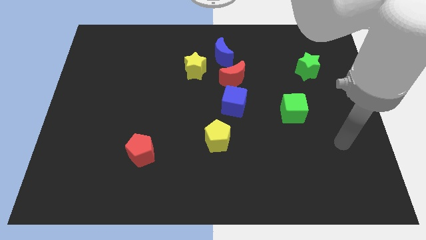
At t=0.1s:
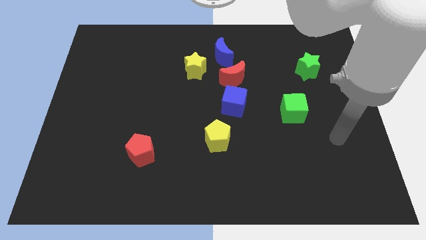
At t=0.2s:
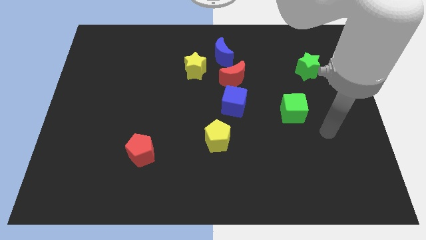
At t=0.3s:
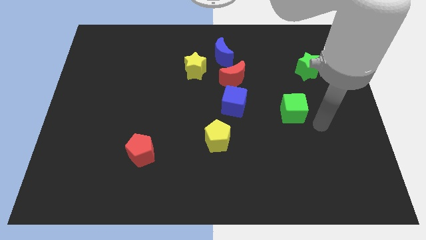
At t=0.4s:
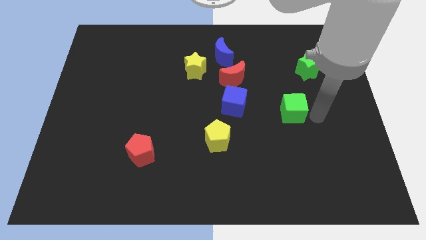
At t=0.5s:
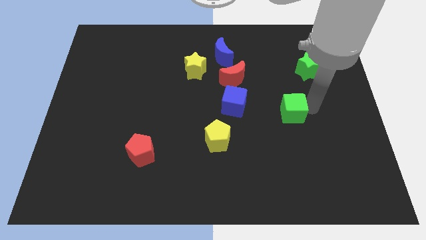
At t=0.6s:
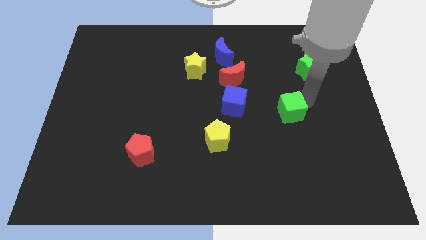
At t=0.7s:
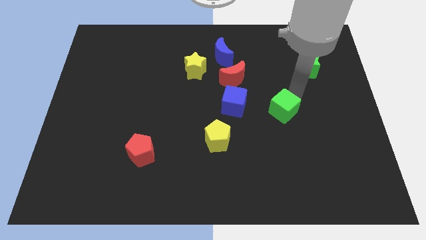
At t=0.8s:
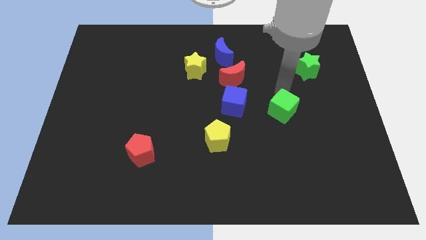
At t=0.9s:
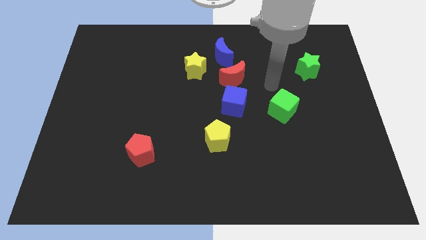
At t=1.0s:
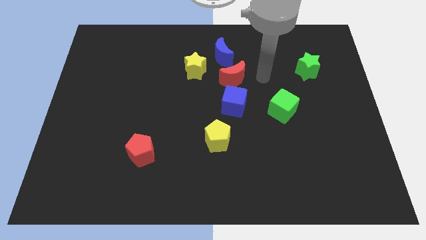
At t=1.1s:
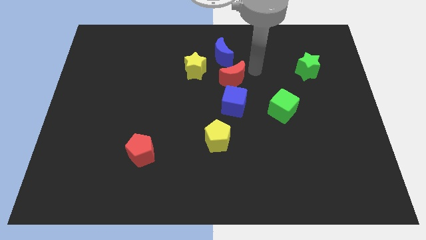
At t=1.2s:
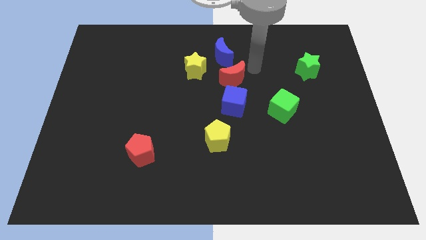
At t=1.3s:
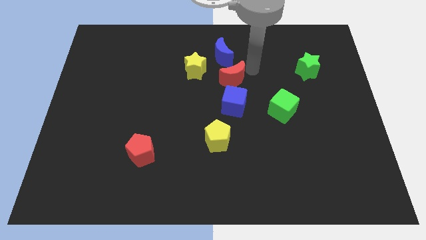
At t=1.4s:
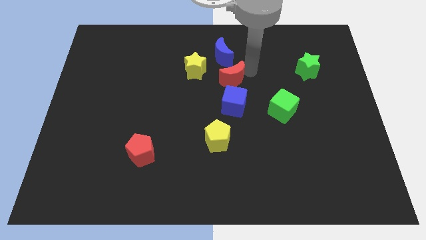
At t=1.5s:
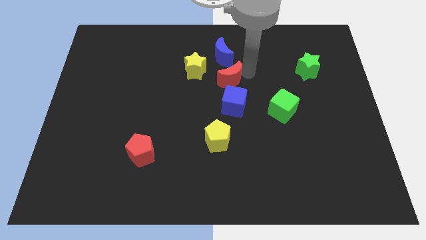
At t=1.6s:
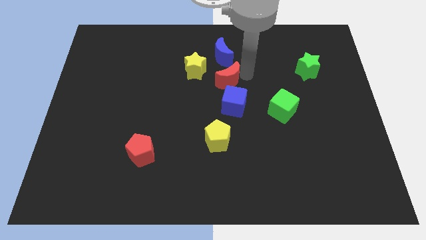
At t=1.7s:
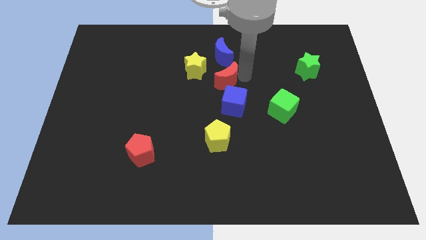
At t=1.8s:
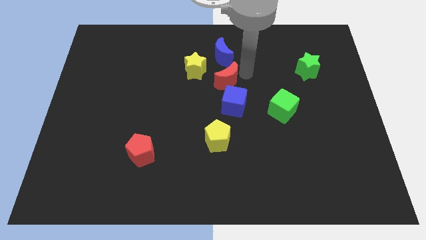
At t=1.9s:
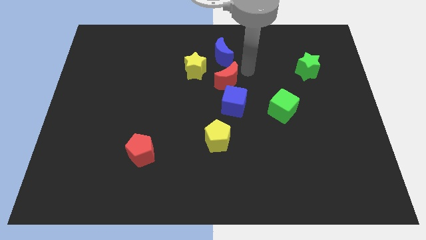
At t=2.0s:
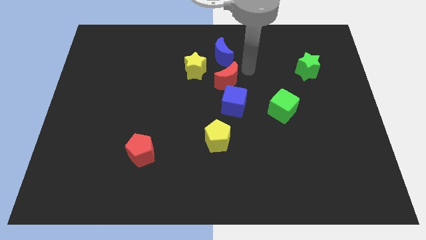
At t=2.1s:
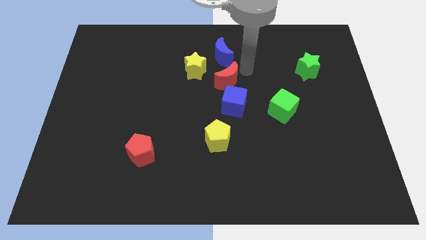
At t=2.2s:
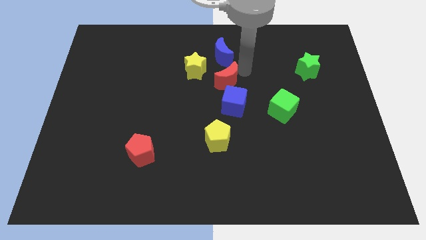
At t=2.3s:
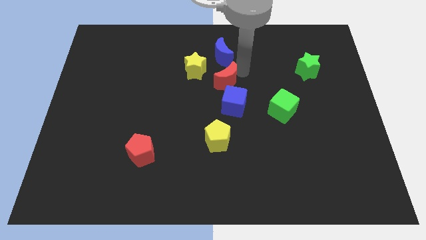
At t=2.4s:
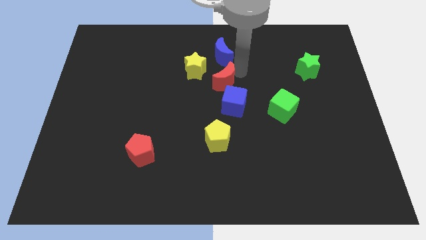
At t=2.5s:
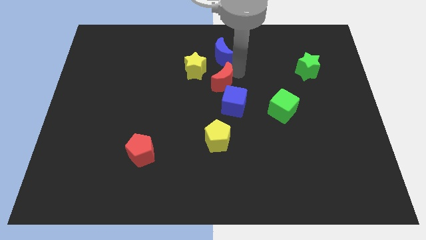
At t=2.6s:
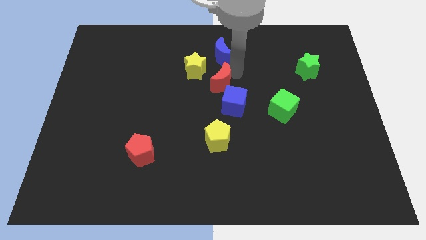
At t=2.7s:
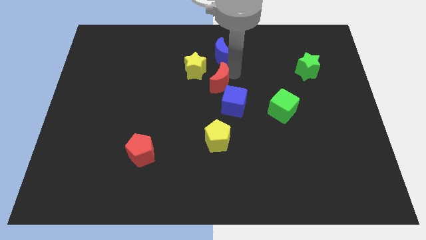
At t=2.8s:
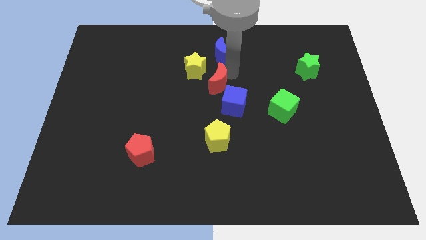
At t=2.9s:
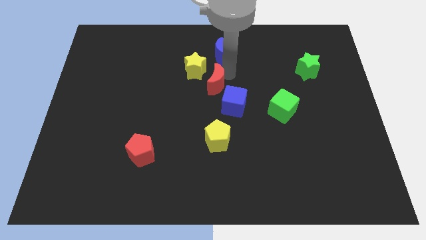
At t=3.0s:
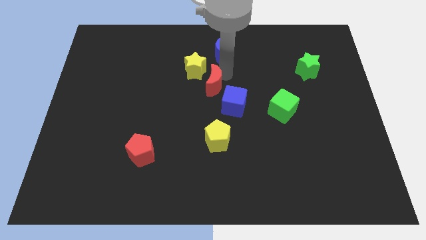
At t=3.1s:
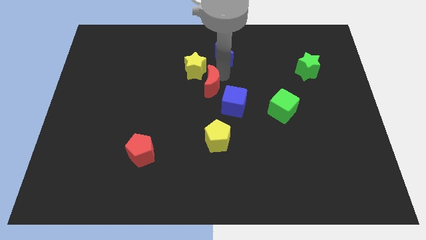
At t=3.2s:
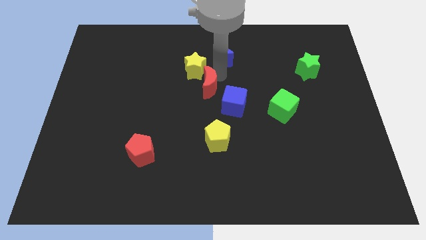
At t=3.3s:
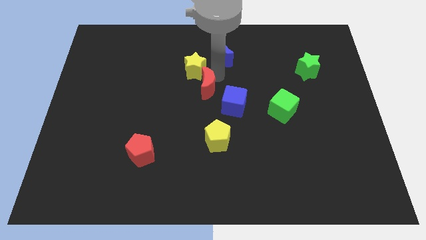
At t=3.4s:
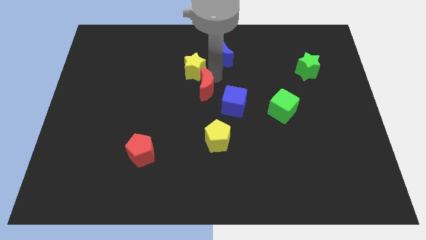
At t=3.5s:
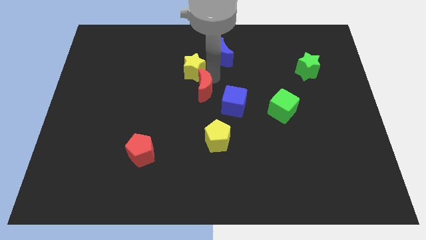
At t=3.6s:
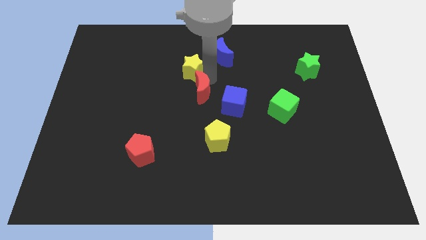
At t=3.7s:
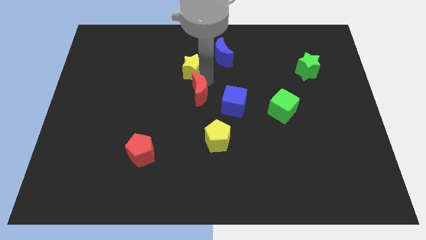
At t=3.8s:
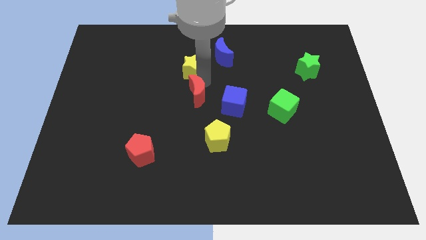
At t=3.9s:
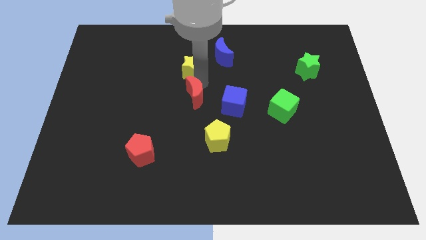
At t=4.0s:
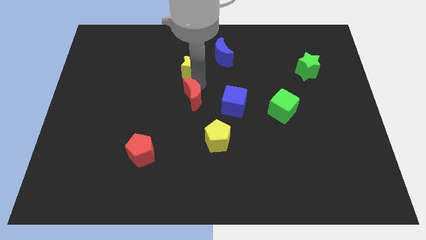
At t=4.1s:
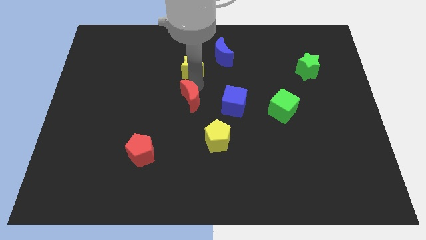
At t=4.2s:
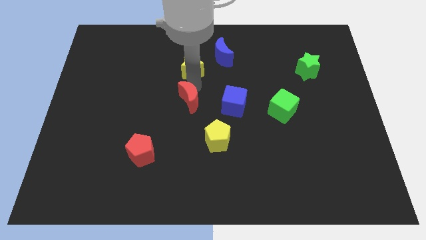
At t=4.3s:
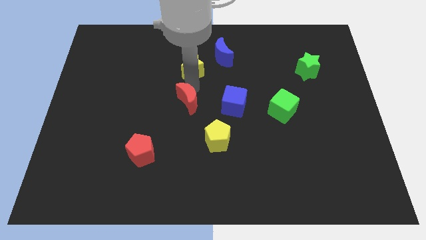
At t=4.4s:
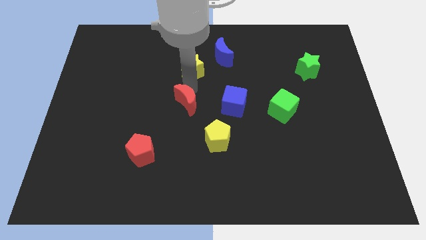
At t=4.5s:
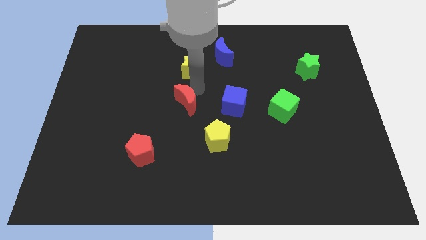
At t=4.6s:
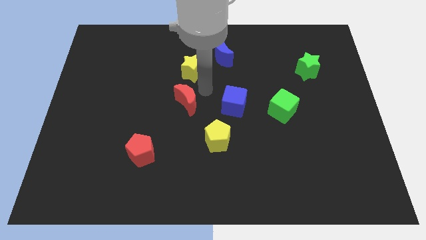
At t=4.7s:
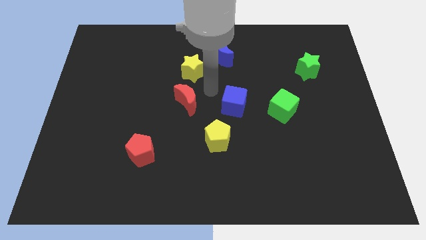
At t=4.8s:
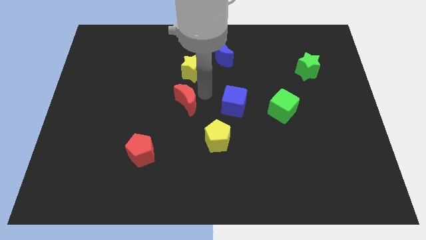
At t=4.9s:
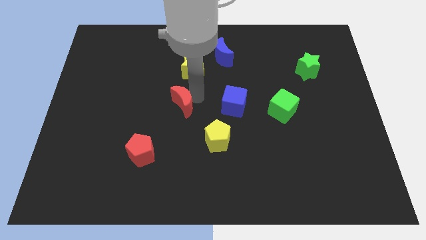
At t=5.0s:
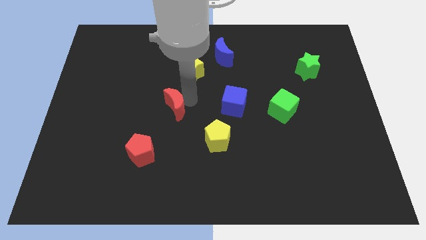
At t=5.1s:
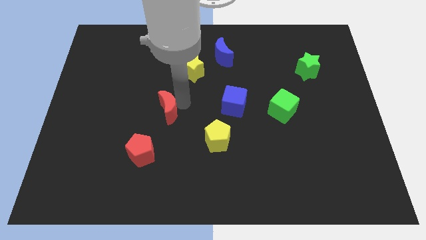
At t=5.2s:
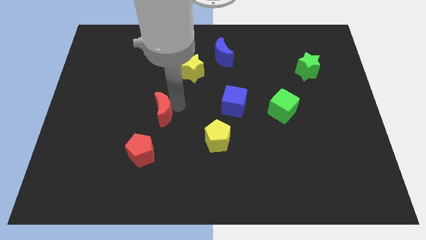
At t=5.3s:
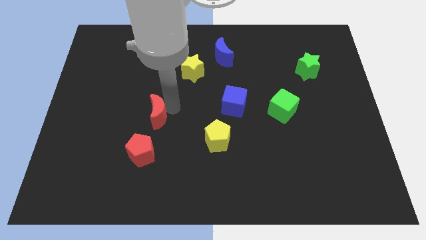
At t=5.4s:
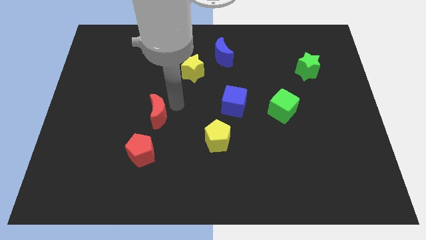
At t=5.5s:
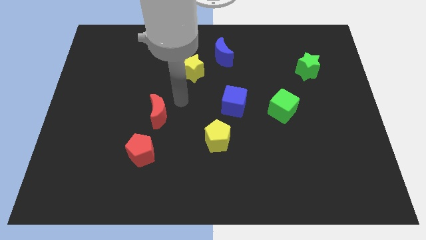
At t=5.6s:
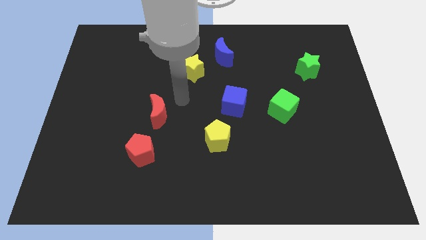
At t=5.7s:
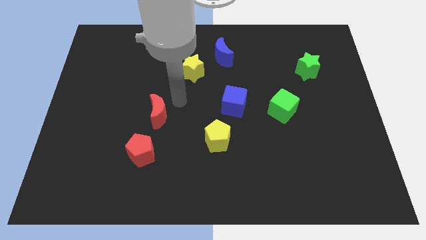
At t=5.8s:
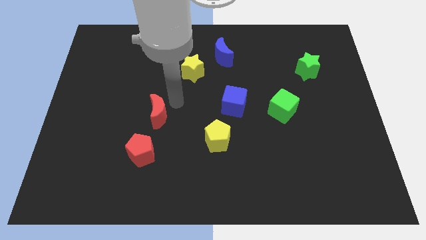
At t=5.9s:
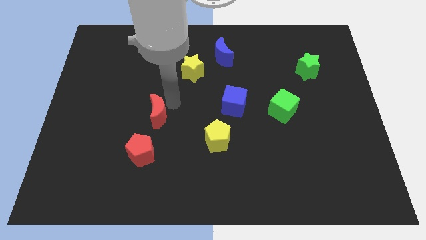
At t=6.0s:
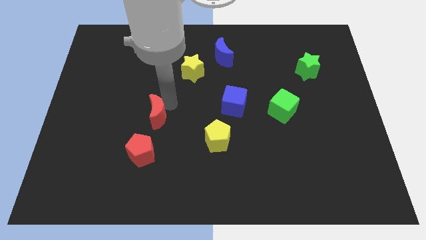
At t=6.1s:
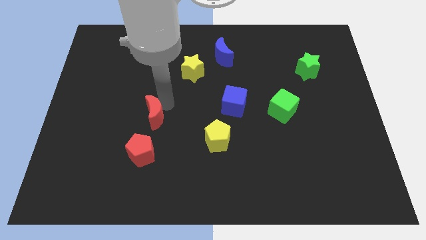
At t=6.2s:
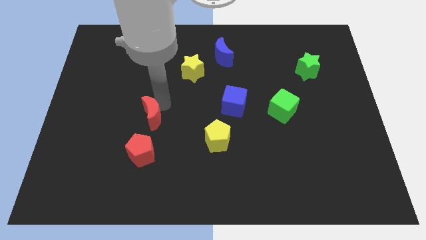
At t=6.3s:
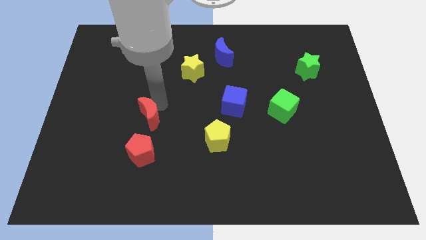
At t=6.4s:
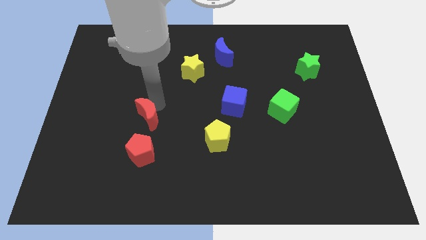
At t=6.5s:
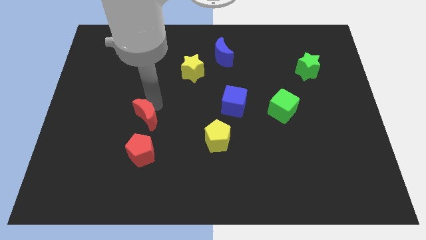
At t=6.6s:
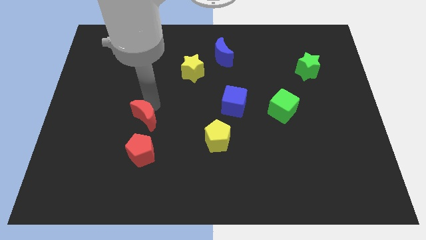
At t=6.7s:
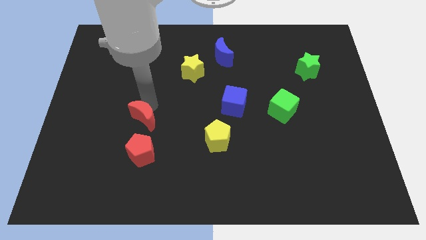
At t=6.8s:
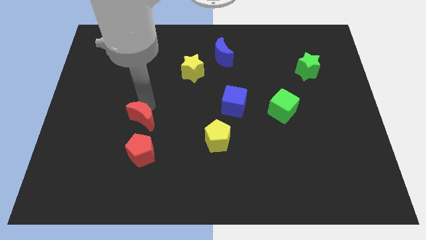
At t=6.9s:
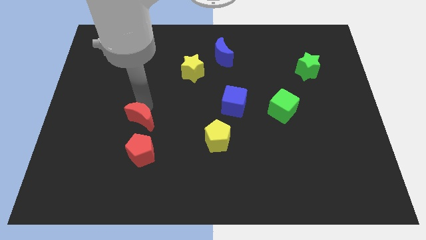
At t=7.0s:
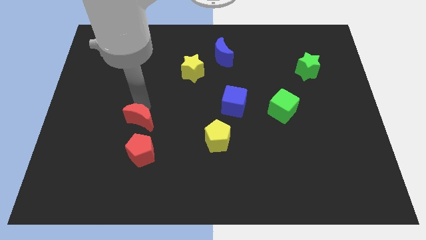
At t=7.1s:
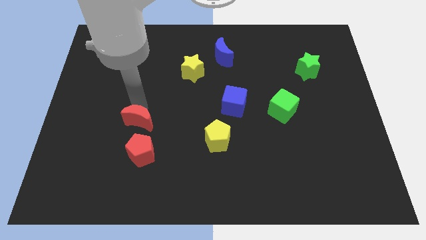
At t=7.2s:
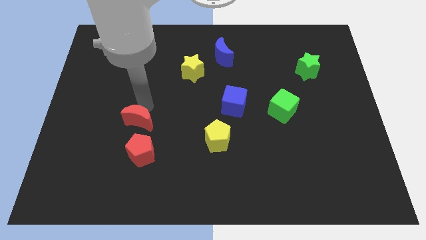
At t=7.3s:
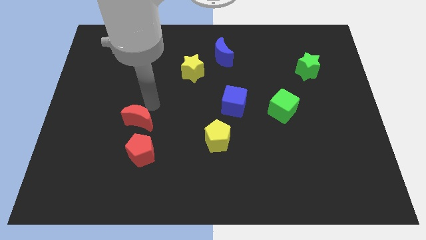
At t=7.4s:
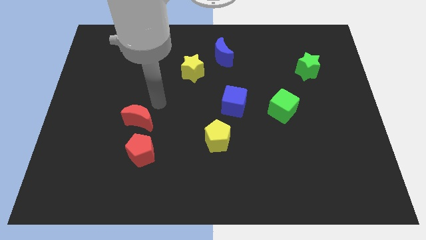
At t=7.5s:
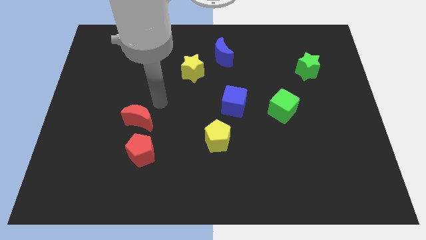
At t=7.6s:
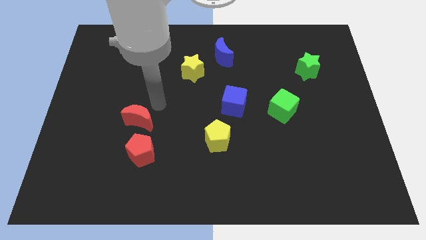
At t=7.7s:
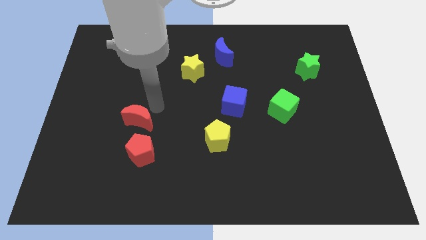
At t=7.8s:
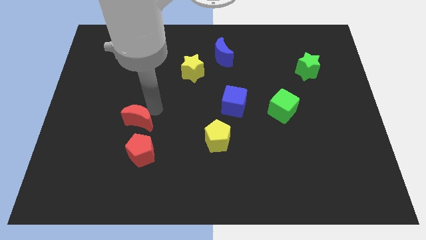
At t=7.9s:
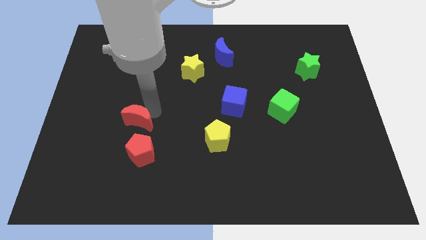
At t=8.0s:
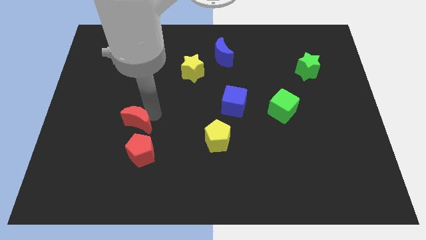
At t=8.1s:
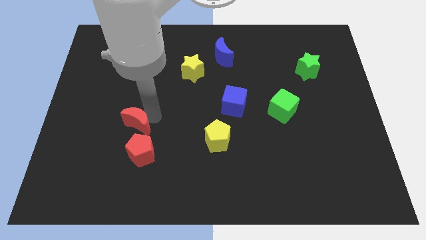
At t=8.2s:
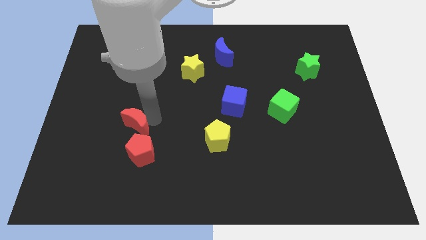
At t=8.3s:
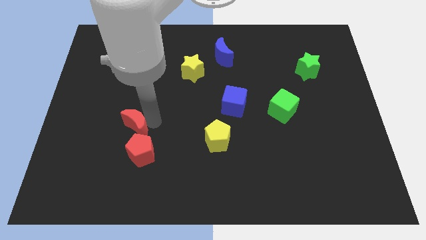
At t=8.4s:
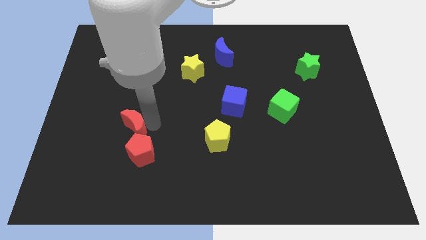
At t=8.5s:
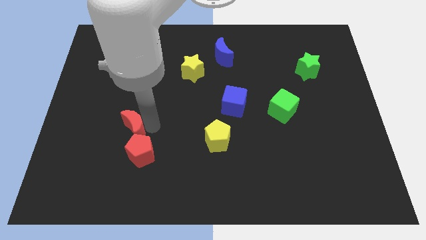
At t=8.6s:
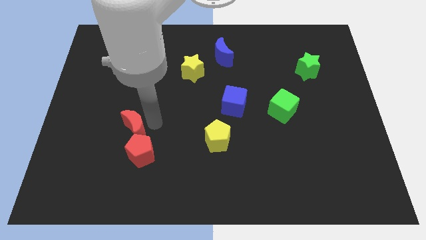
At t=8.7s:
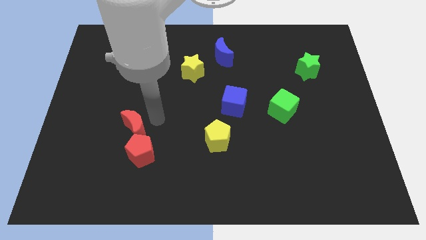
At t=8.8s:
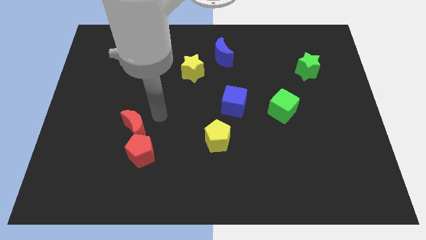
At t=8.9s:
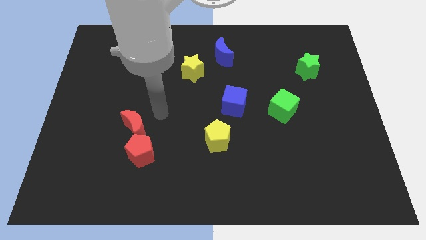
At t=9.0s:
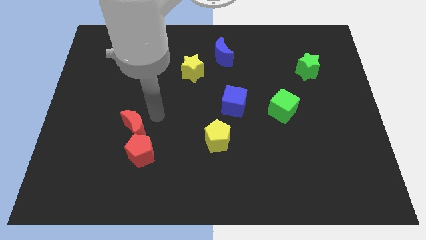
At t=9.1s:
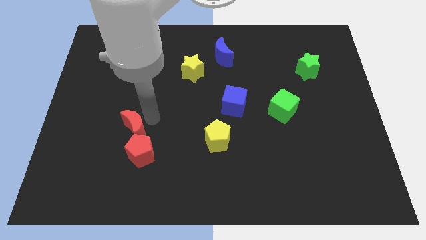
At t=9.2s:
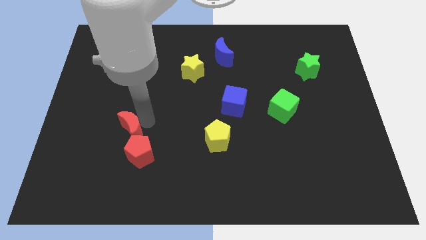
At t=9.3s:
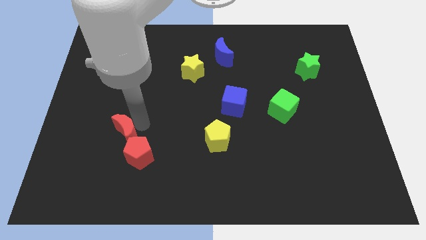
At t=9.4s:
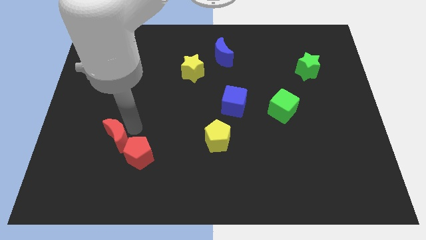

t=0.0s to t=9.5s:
move the red moon to the left of the red pentagon
